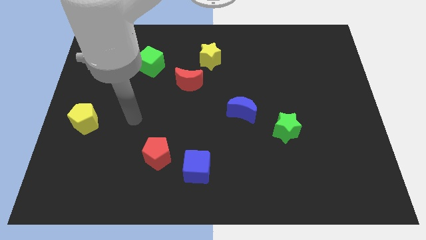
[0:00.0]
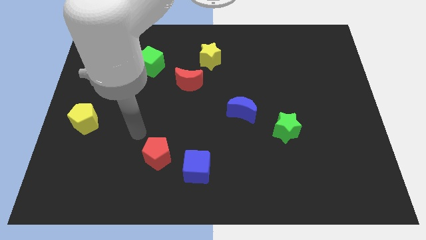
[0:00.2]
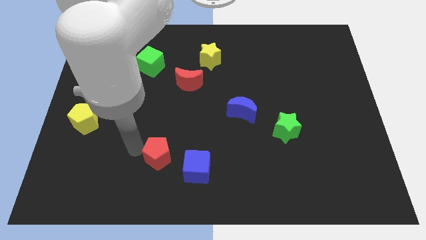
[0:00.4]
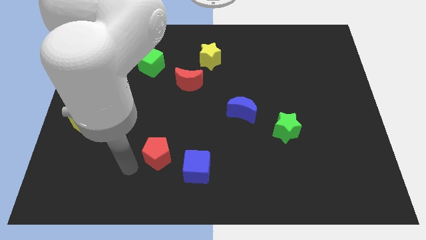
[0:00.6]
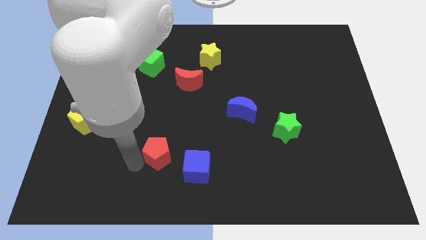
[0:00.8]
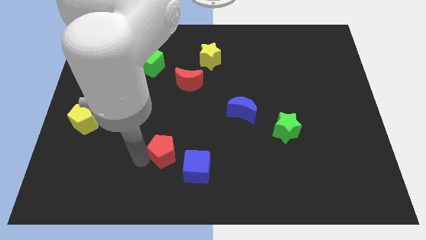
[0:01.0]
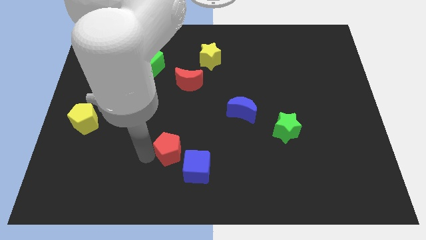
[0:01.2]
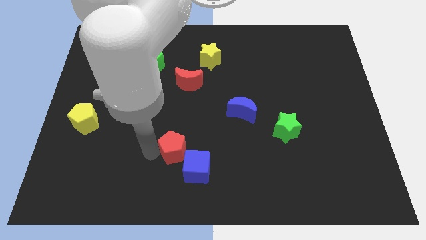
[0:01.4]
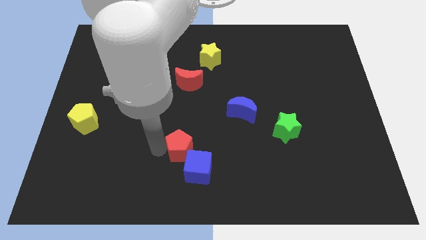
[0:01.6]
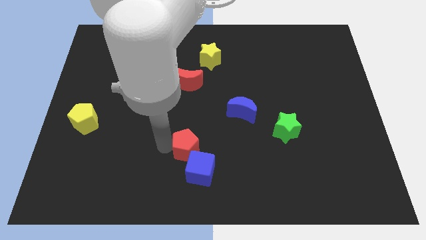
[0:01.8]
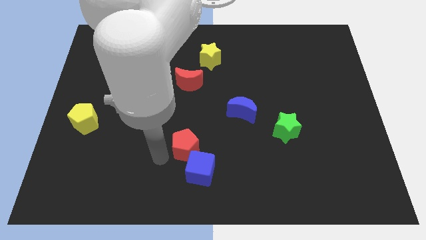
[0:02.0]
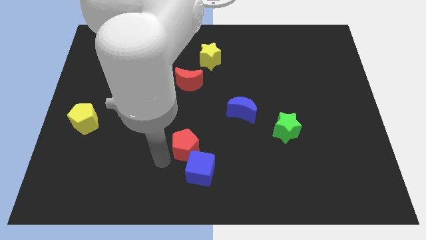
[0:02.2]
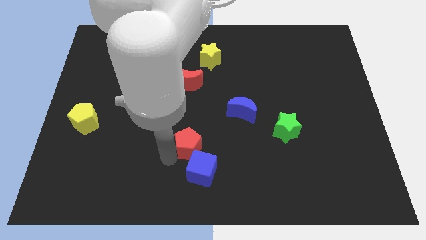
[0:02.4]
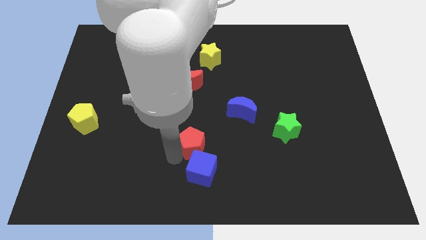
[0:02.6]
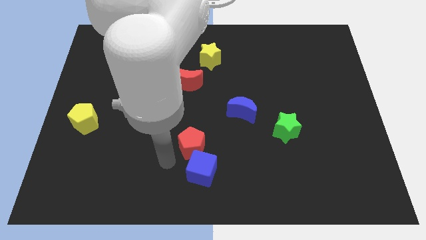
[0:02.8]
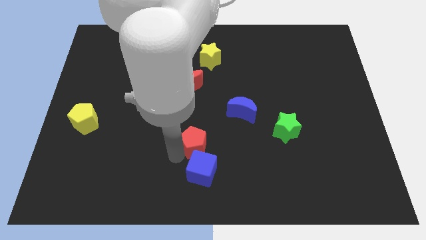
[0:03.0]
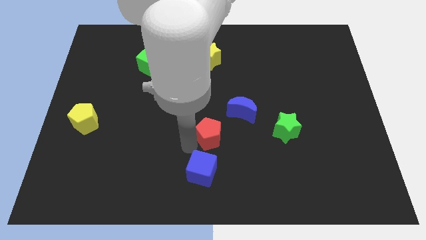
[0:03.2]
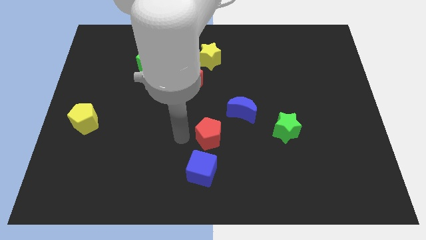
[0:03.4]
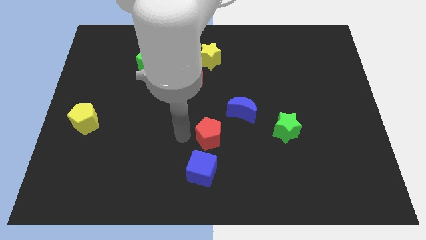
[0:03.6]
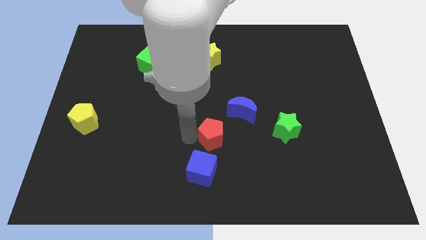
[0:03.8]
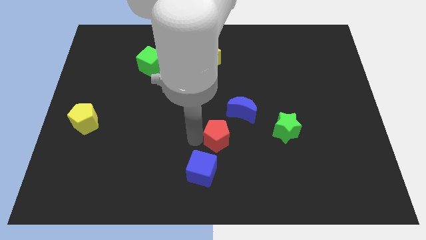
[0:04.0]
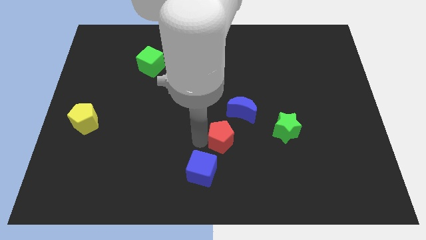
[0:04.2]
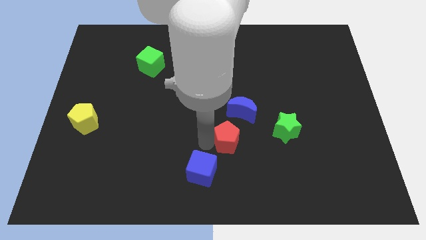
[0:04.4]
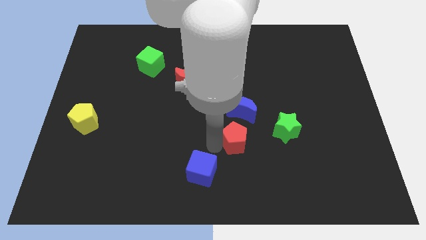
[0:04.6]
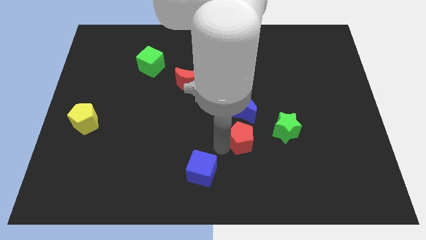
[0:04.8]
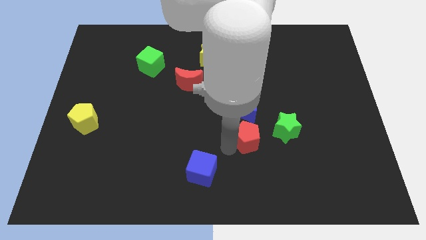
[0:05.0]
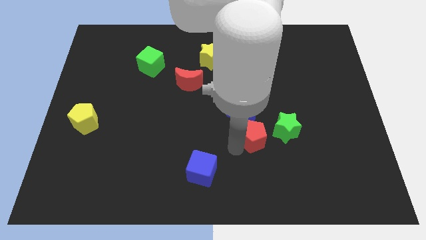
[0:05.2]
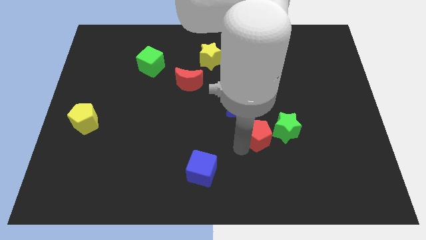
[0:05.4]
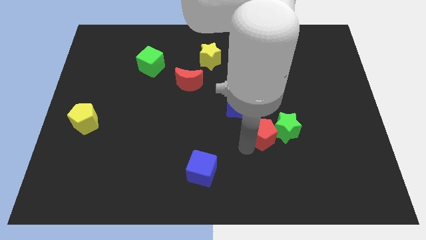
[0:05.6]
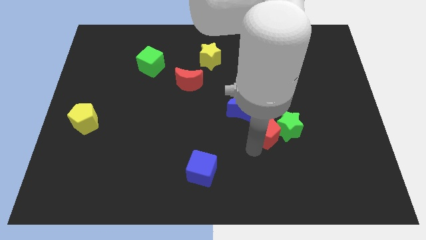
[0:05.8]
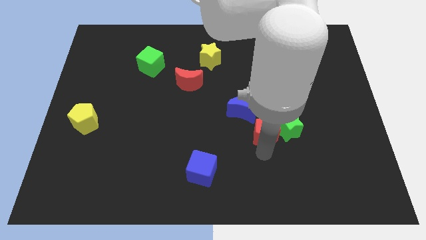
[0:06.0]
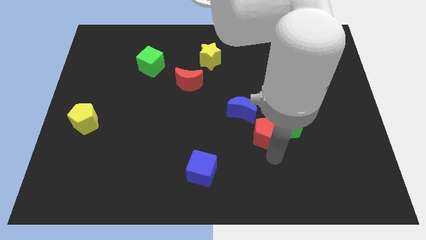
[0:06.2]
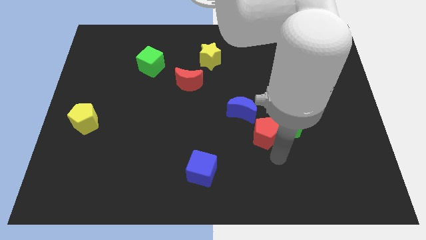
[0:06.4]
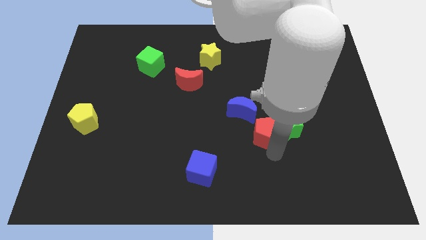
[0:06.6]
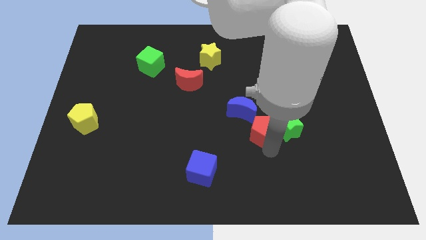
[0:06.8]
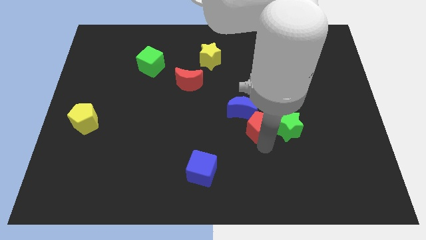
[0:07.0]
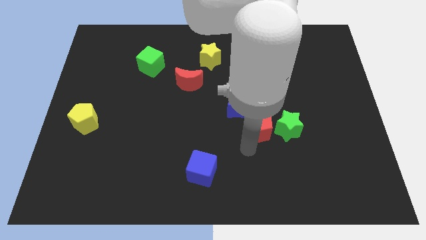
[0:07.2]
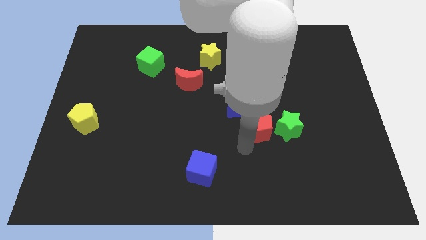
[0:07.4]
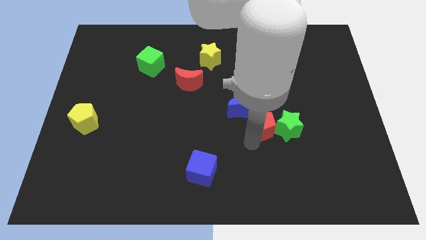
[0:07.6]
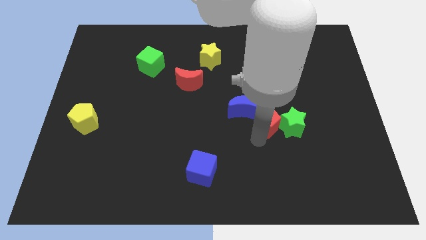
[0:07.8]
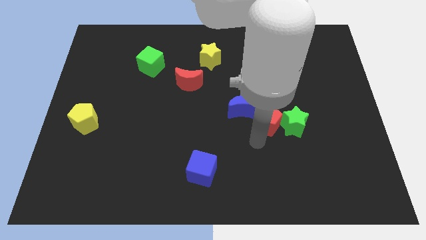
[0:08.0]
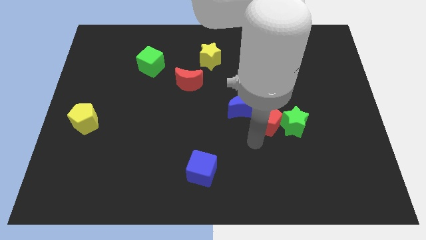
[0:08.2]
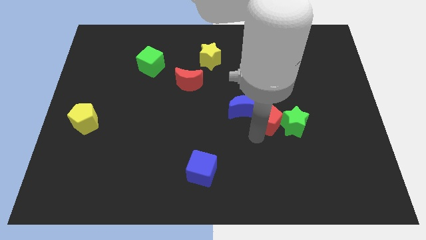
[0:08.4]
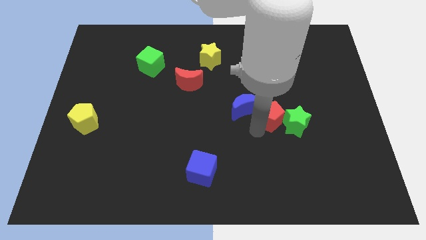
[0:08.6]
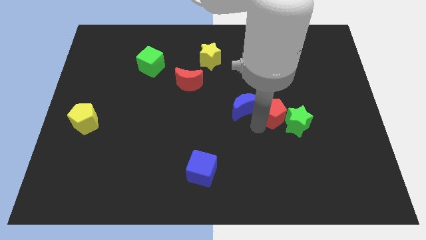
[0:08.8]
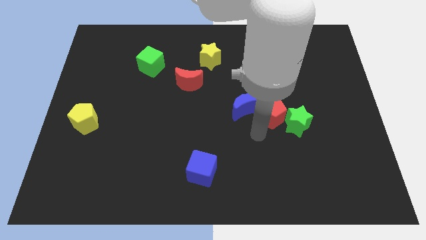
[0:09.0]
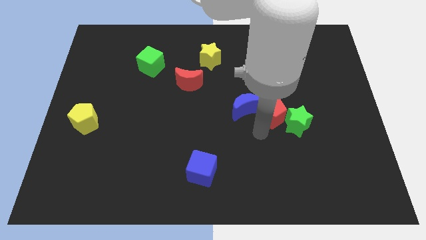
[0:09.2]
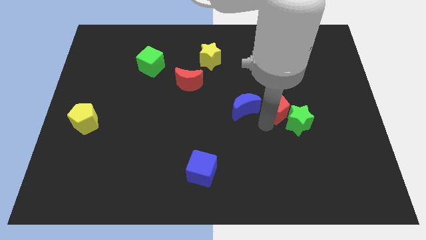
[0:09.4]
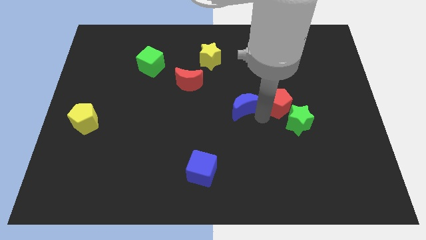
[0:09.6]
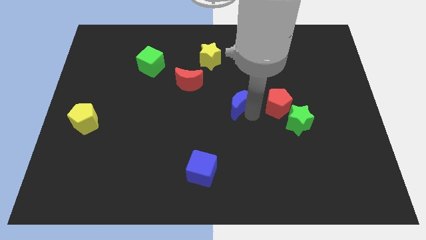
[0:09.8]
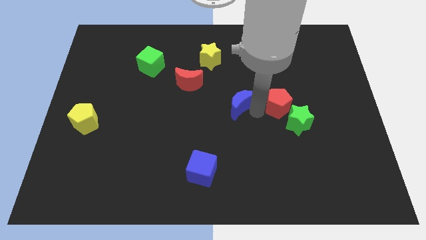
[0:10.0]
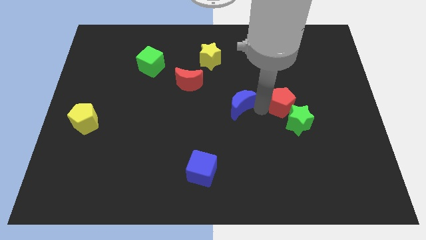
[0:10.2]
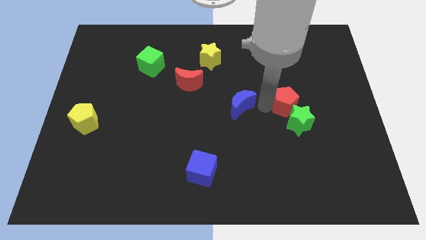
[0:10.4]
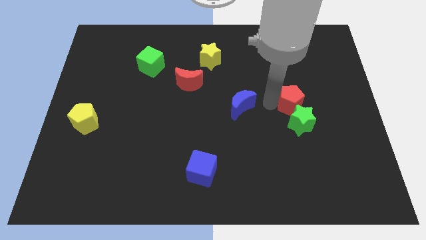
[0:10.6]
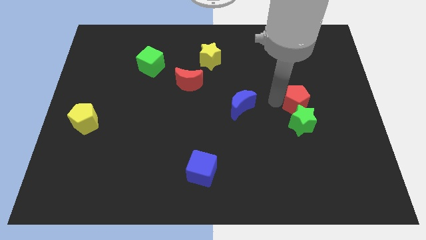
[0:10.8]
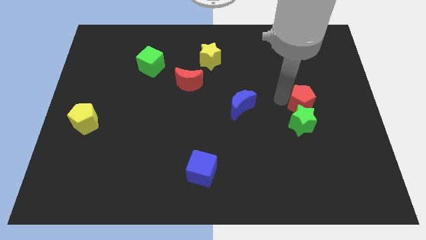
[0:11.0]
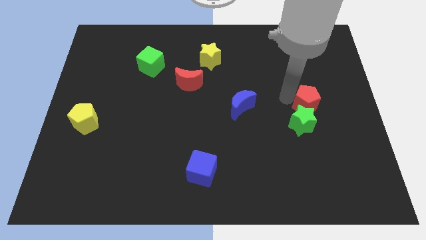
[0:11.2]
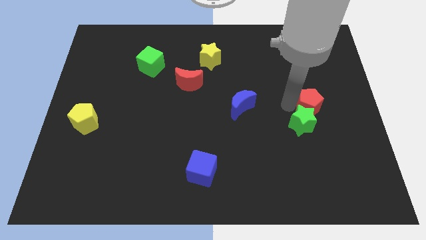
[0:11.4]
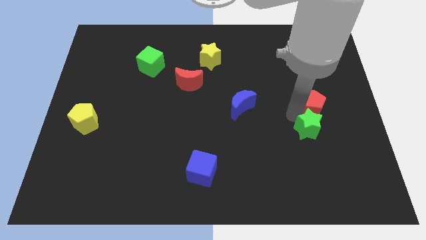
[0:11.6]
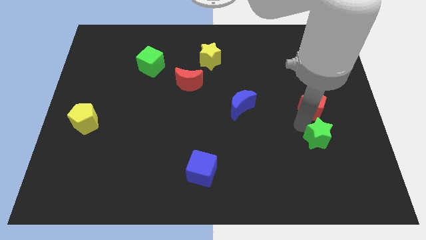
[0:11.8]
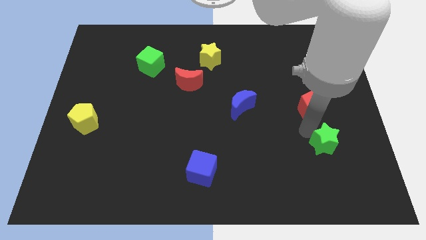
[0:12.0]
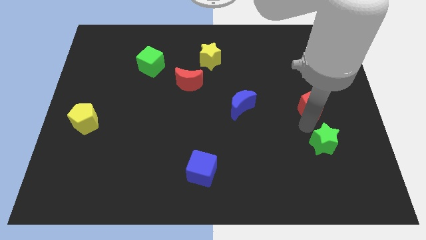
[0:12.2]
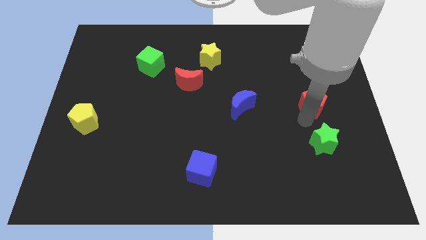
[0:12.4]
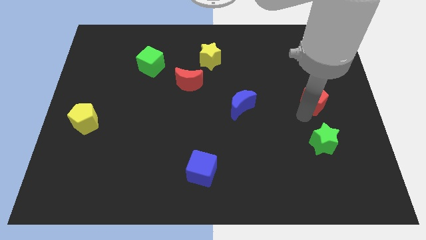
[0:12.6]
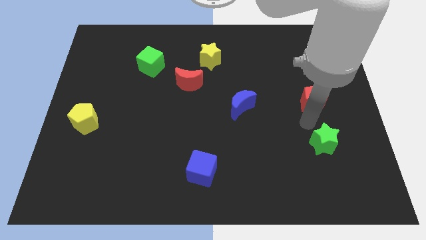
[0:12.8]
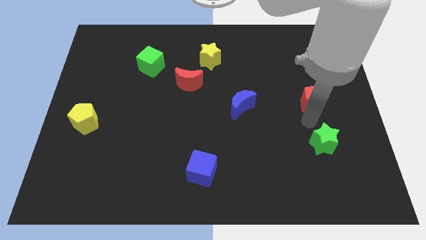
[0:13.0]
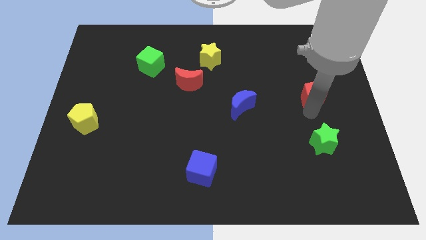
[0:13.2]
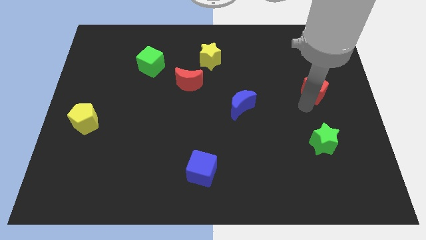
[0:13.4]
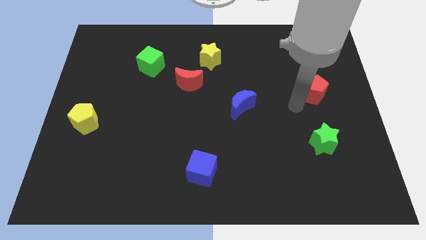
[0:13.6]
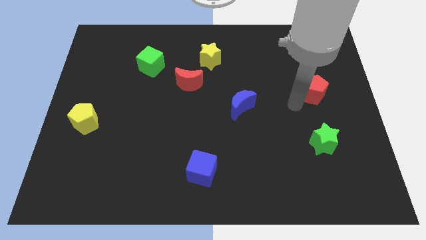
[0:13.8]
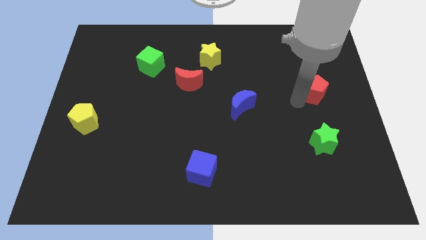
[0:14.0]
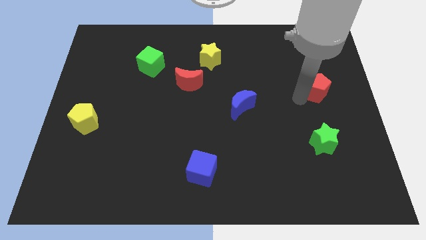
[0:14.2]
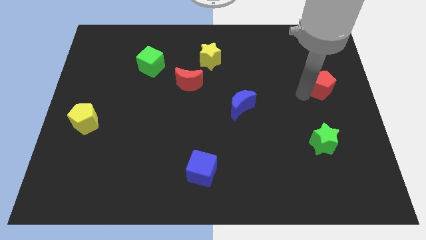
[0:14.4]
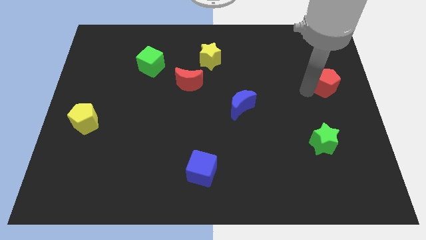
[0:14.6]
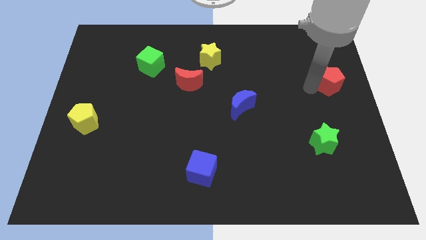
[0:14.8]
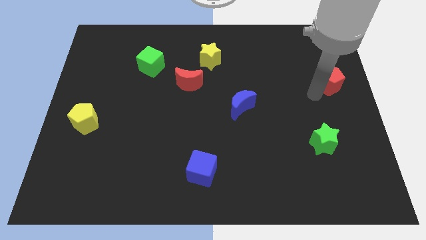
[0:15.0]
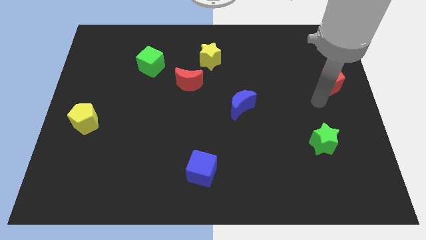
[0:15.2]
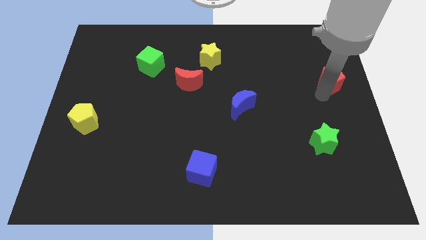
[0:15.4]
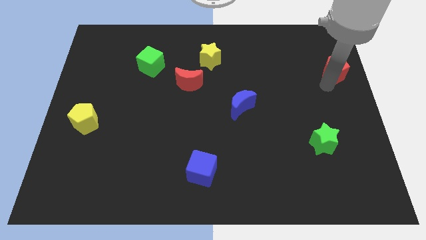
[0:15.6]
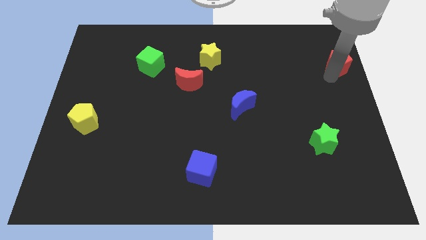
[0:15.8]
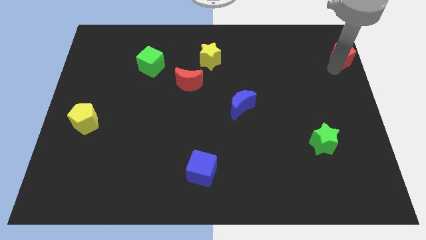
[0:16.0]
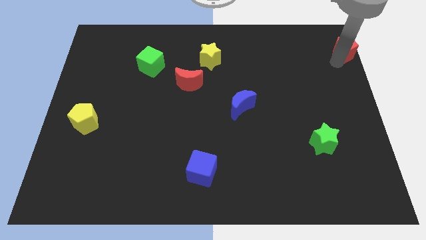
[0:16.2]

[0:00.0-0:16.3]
move the red pentagon to the top right

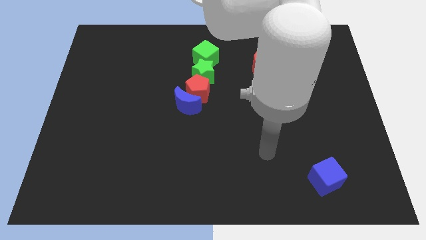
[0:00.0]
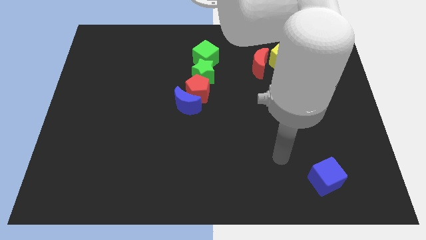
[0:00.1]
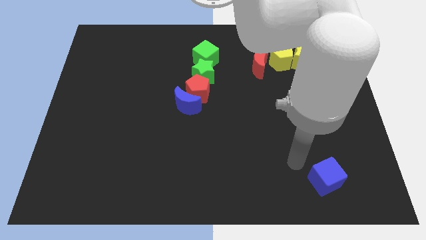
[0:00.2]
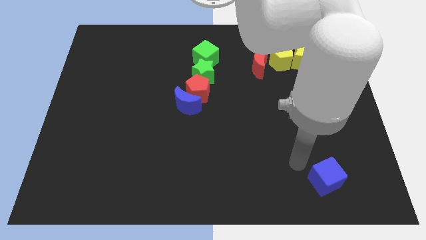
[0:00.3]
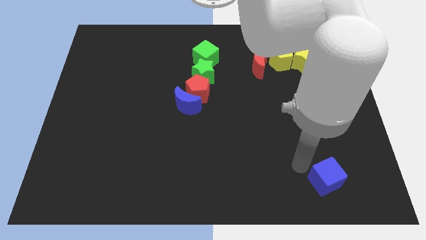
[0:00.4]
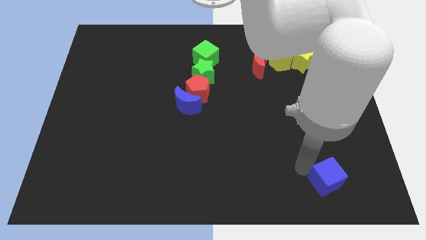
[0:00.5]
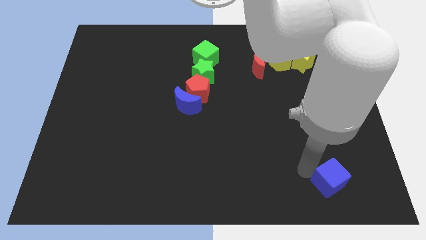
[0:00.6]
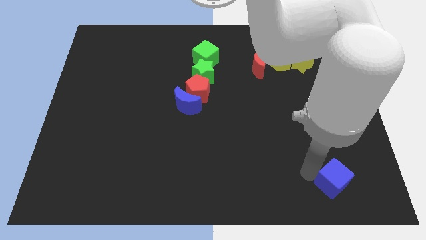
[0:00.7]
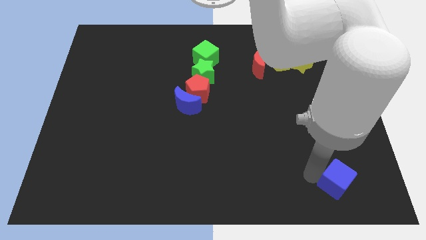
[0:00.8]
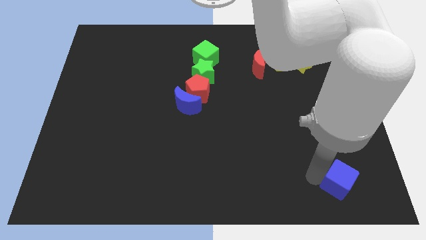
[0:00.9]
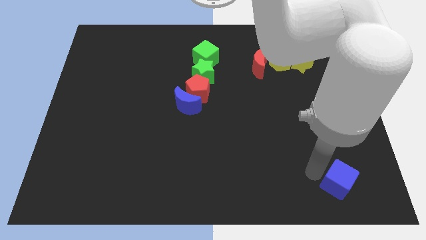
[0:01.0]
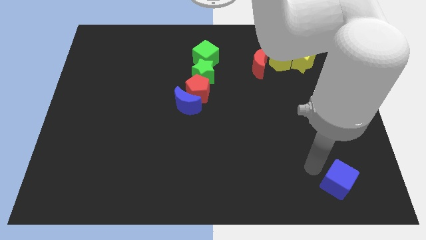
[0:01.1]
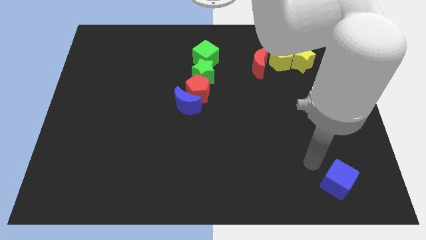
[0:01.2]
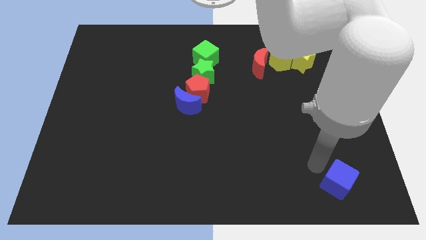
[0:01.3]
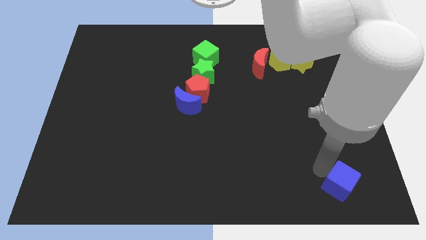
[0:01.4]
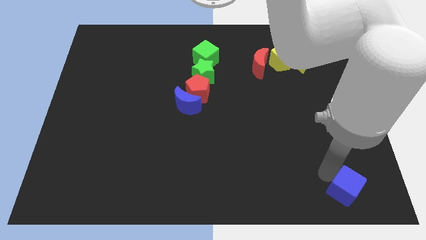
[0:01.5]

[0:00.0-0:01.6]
slide the blue cube to the bottom right
